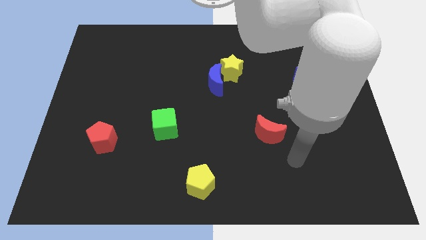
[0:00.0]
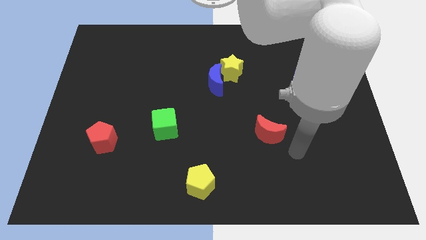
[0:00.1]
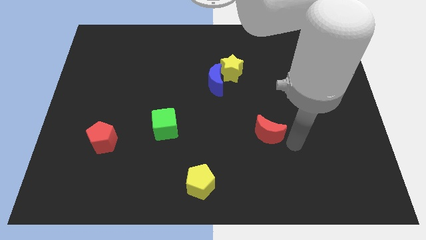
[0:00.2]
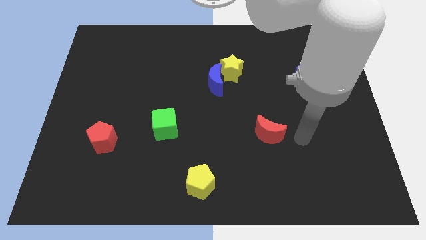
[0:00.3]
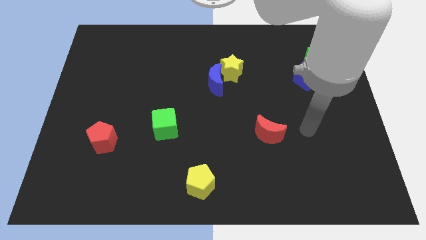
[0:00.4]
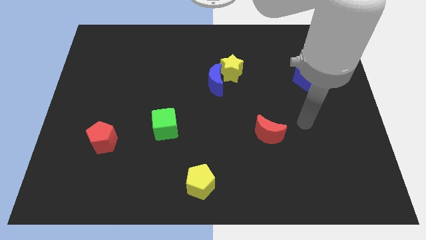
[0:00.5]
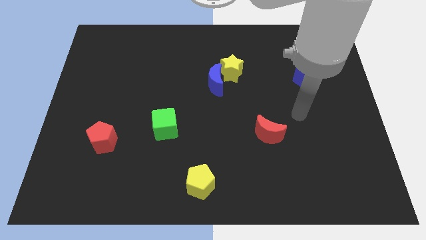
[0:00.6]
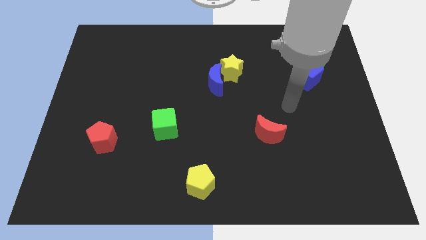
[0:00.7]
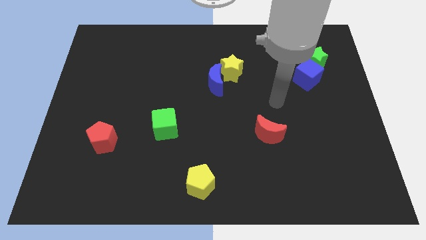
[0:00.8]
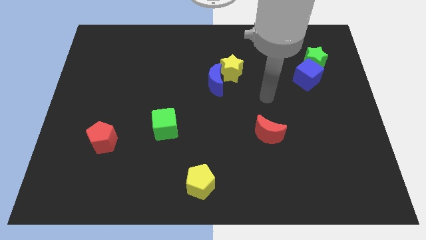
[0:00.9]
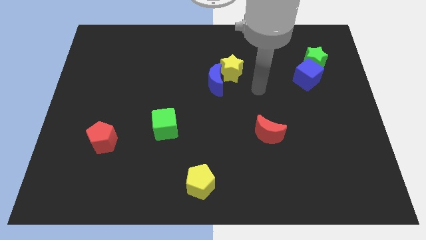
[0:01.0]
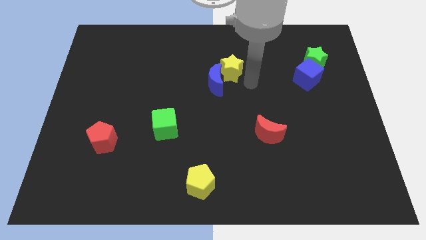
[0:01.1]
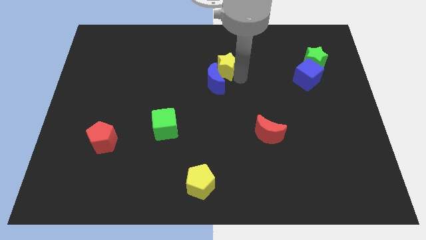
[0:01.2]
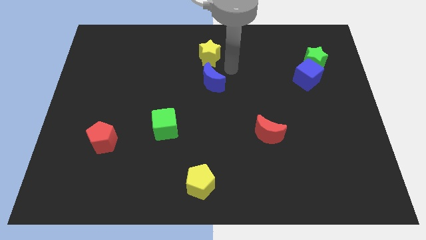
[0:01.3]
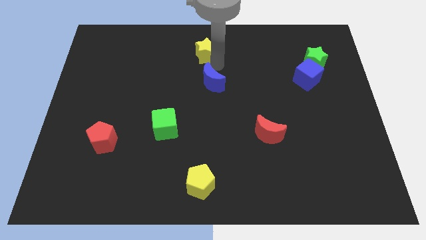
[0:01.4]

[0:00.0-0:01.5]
separate the blue moon from the yellow star

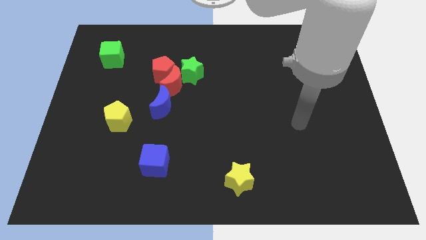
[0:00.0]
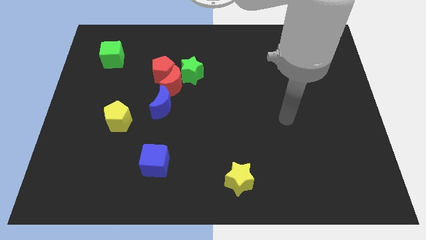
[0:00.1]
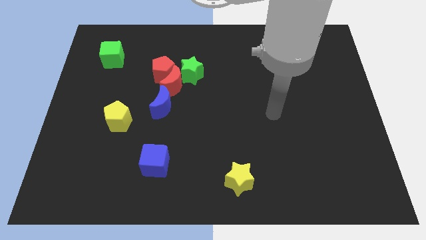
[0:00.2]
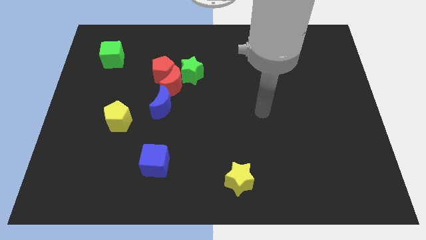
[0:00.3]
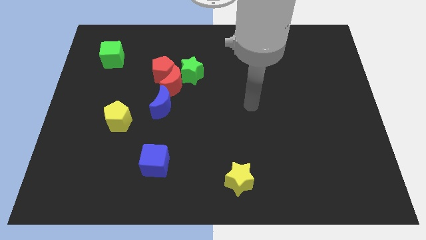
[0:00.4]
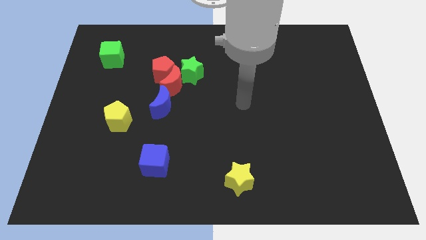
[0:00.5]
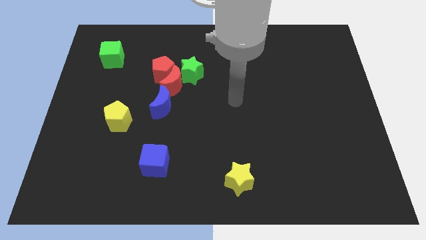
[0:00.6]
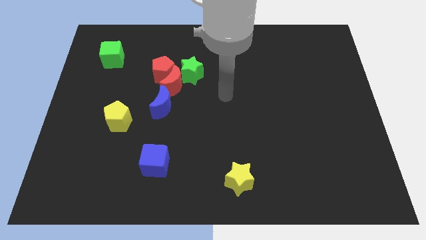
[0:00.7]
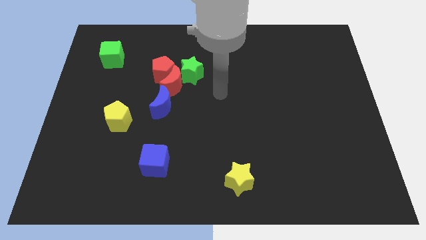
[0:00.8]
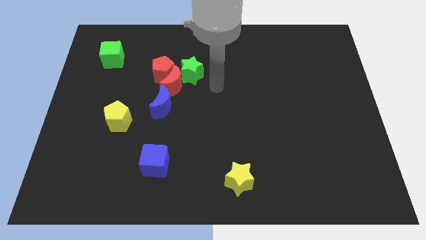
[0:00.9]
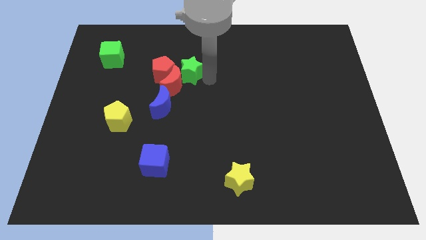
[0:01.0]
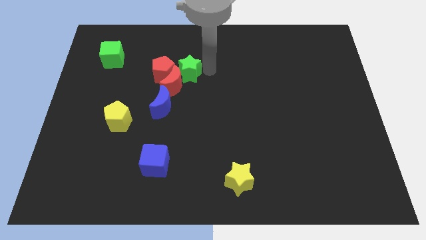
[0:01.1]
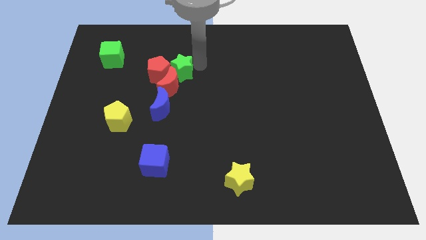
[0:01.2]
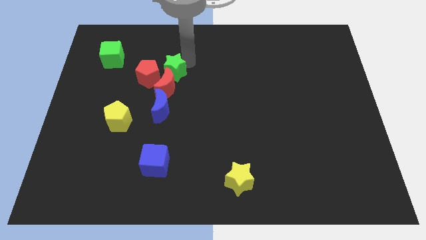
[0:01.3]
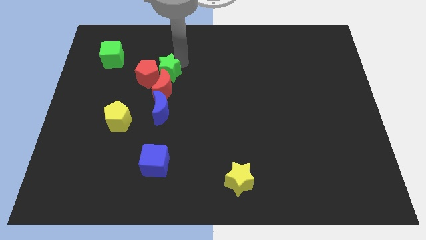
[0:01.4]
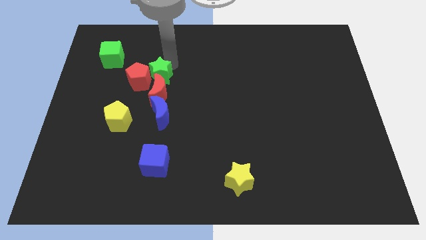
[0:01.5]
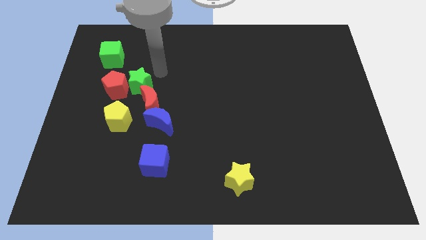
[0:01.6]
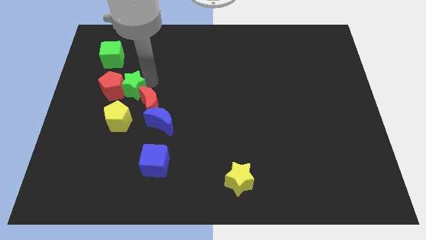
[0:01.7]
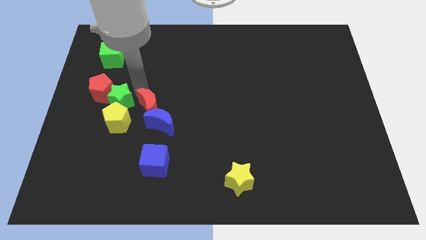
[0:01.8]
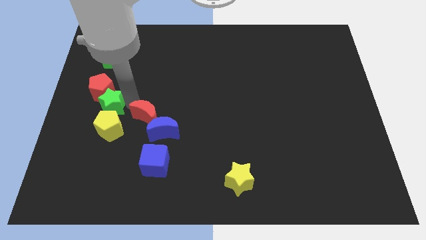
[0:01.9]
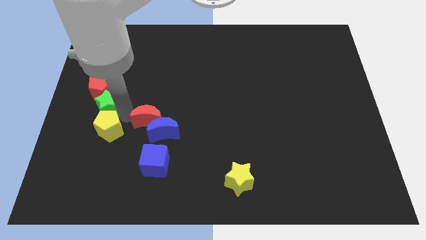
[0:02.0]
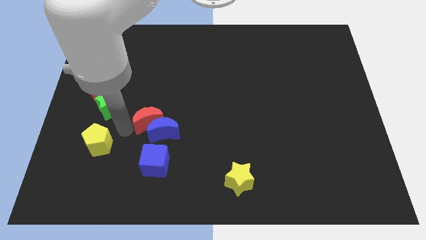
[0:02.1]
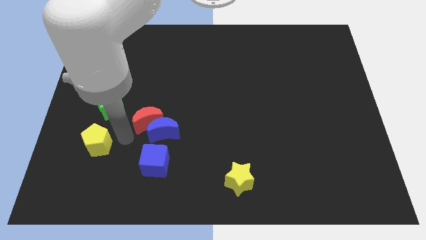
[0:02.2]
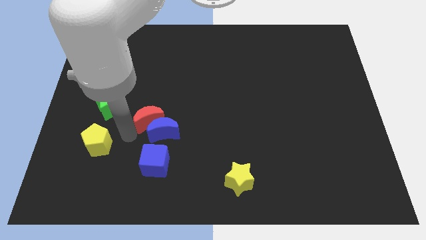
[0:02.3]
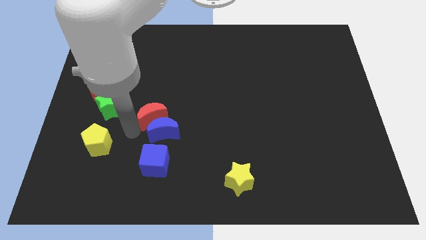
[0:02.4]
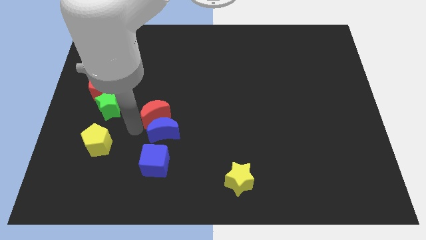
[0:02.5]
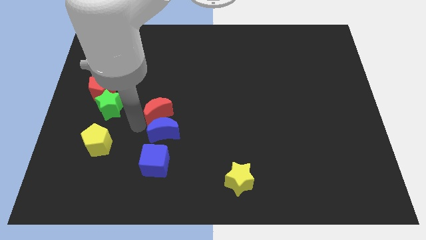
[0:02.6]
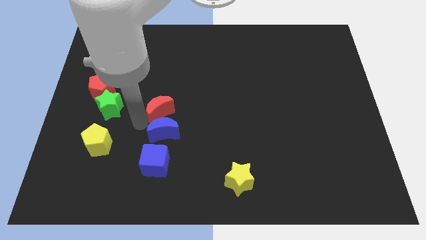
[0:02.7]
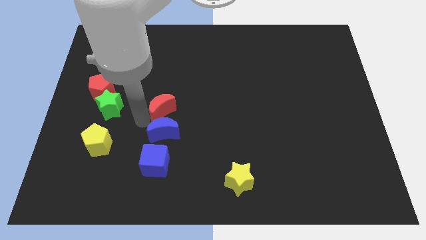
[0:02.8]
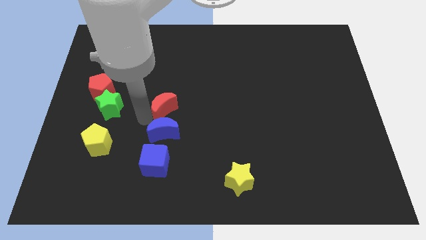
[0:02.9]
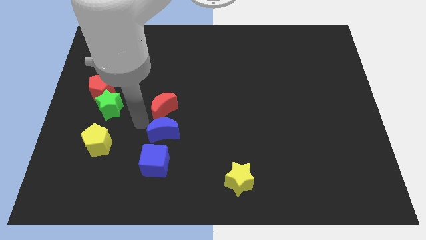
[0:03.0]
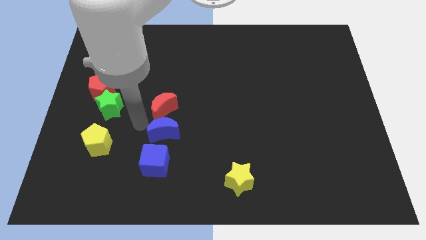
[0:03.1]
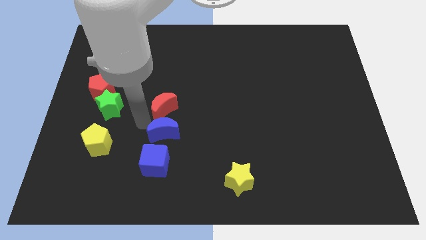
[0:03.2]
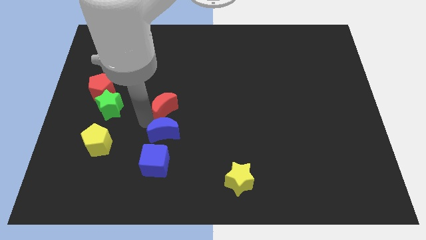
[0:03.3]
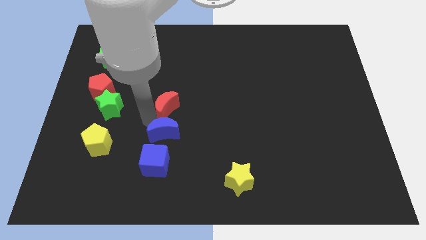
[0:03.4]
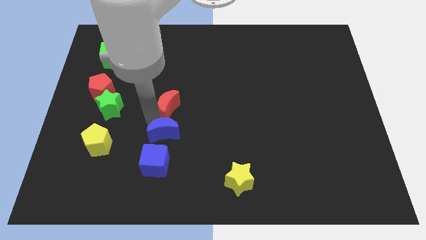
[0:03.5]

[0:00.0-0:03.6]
pull the red moon apart from the red pentagon, green star, and blue moon

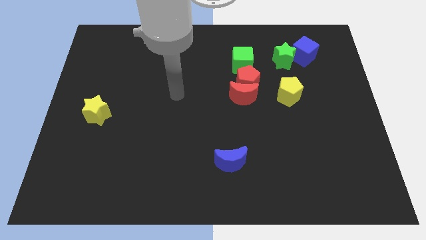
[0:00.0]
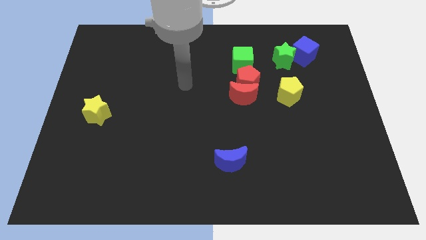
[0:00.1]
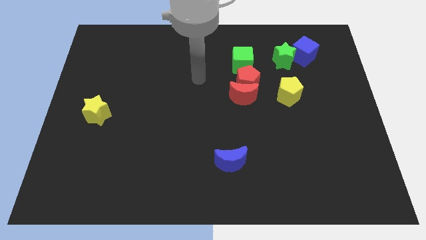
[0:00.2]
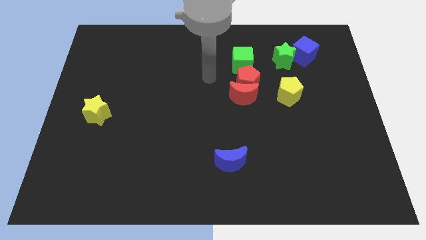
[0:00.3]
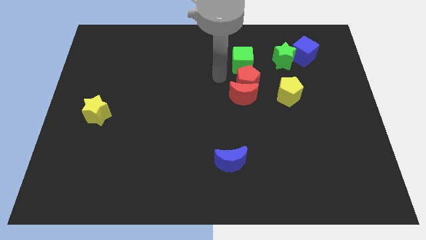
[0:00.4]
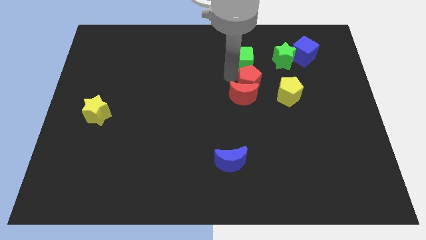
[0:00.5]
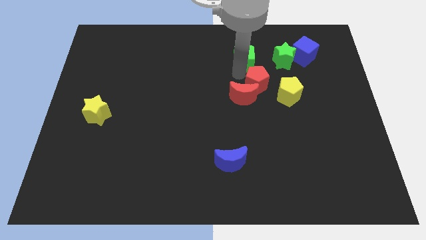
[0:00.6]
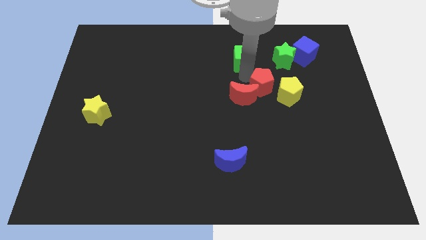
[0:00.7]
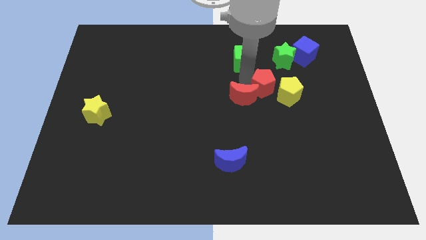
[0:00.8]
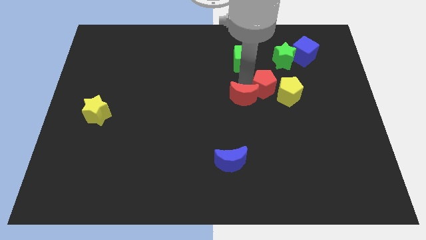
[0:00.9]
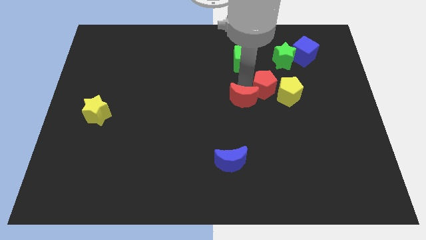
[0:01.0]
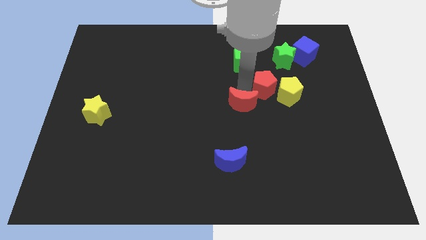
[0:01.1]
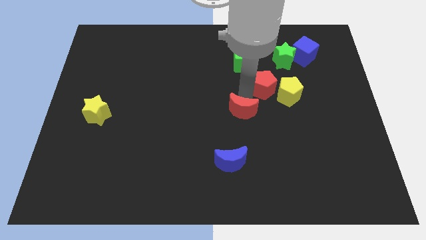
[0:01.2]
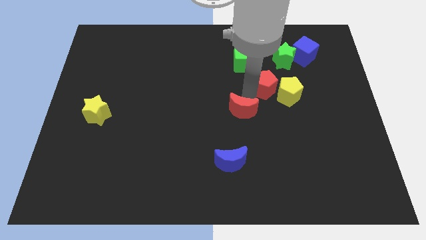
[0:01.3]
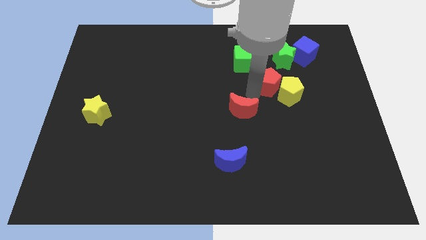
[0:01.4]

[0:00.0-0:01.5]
separate the red moon from the red pentagon

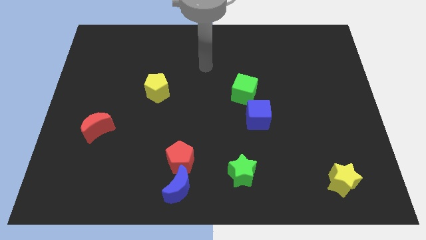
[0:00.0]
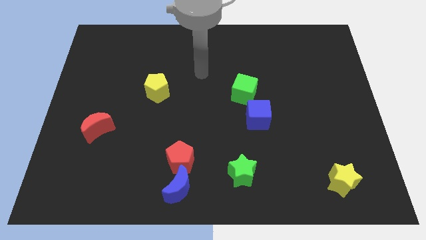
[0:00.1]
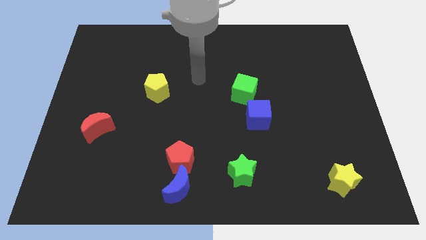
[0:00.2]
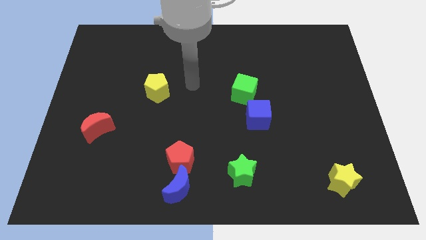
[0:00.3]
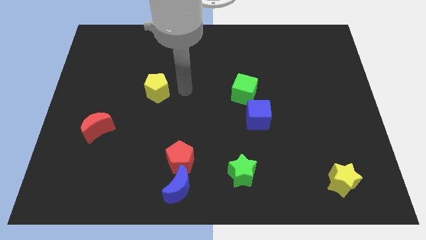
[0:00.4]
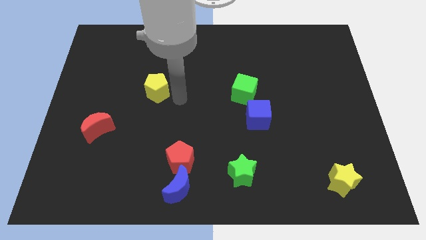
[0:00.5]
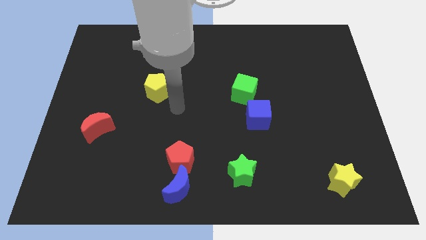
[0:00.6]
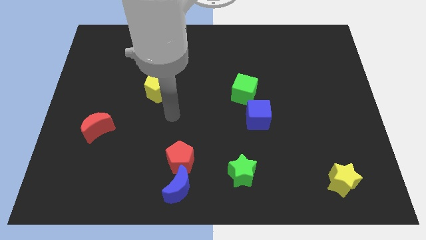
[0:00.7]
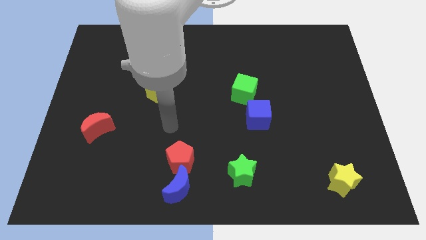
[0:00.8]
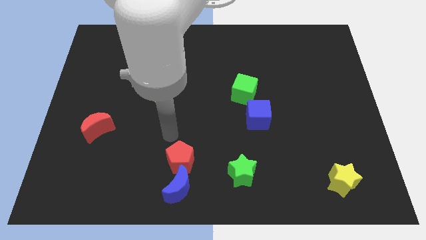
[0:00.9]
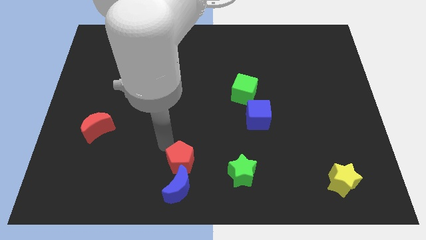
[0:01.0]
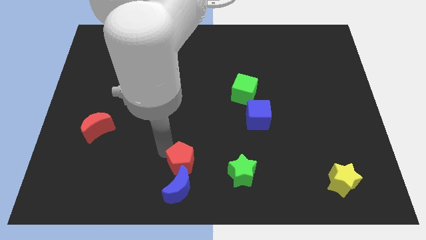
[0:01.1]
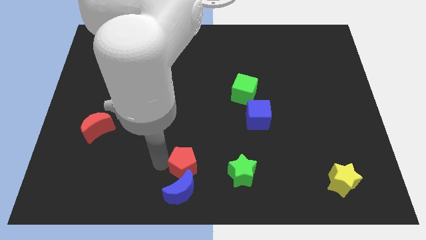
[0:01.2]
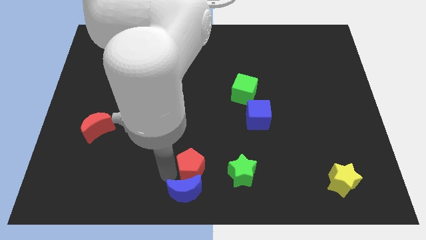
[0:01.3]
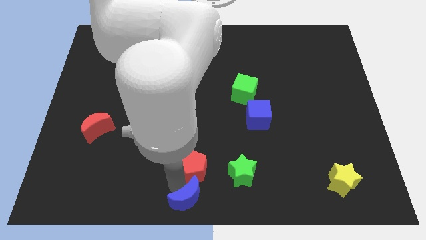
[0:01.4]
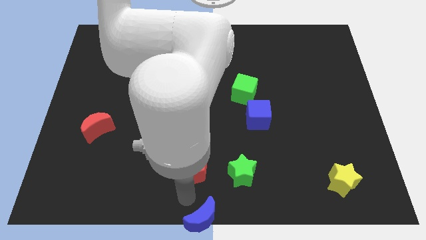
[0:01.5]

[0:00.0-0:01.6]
separate the red pentagon from the blue moon

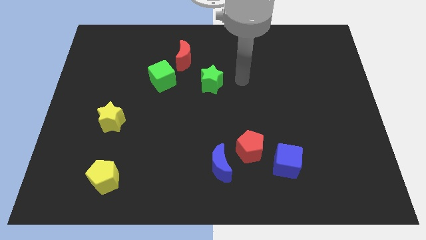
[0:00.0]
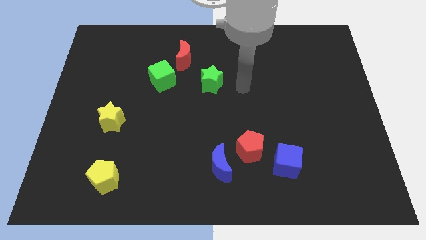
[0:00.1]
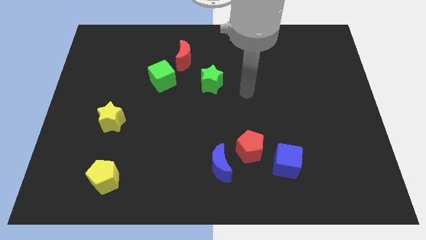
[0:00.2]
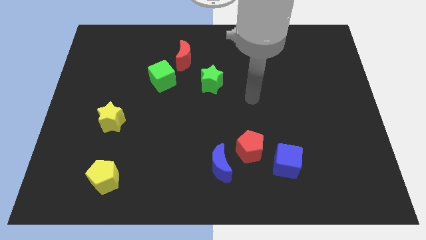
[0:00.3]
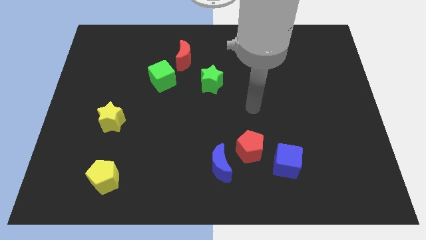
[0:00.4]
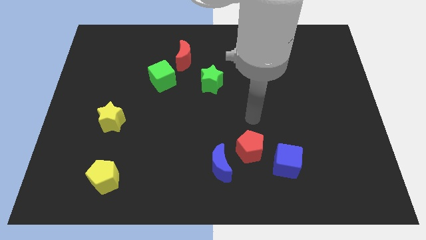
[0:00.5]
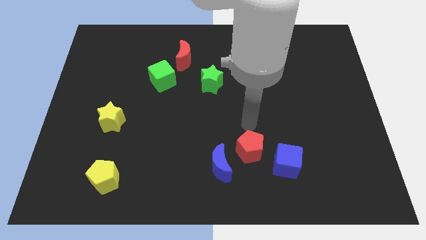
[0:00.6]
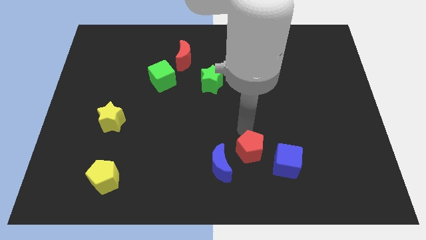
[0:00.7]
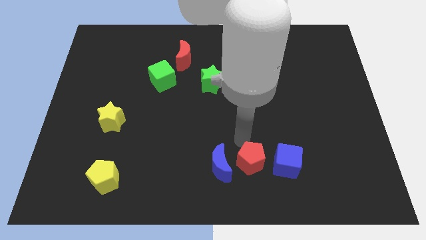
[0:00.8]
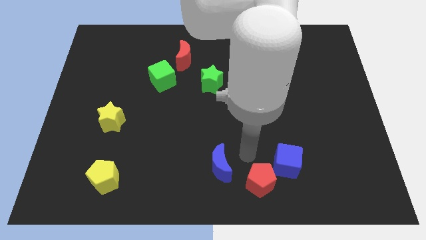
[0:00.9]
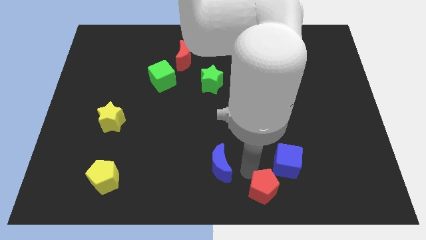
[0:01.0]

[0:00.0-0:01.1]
pull the blue moon apart from the red pentagon
